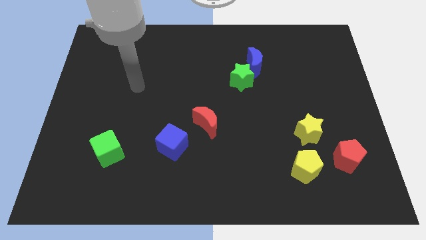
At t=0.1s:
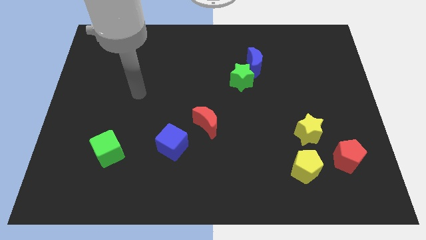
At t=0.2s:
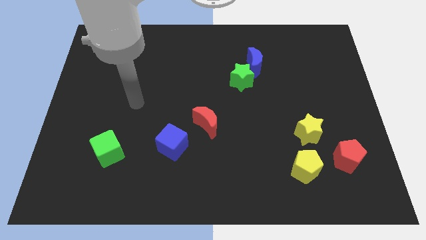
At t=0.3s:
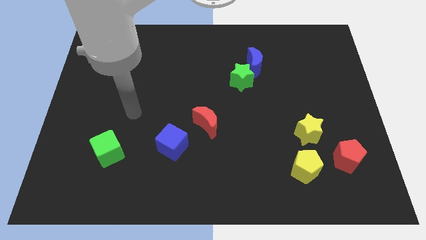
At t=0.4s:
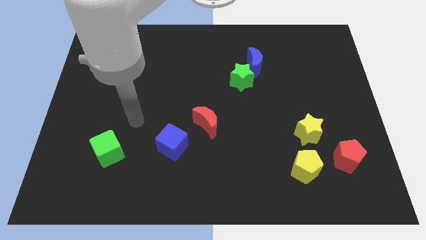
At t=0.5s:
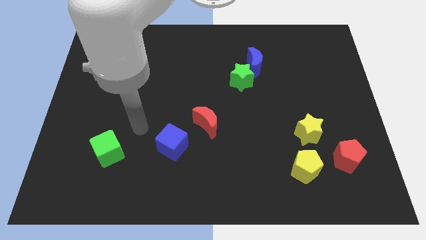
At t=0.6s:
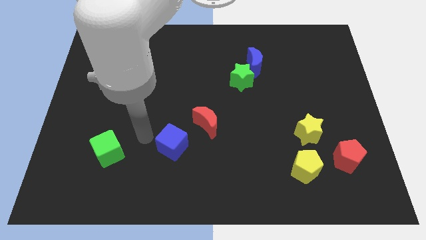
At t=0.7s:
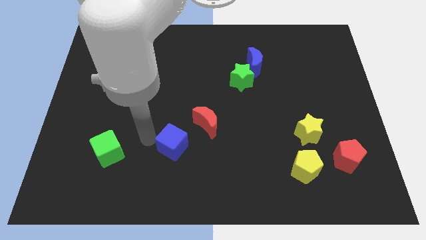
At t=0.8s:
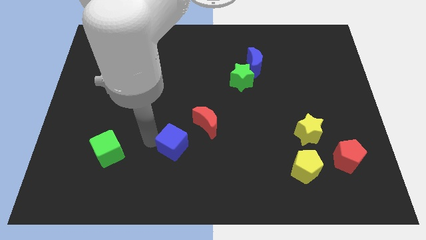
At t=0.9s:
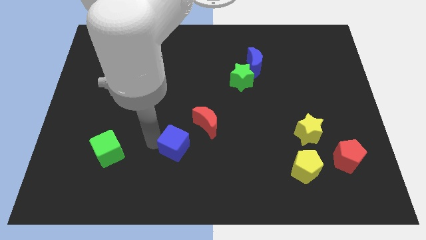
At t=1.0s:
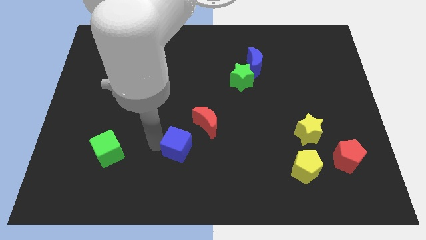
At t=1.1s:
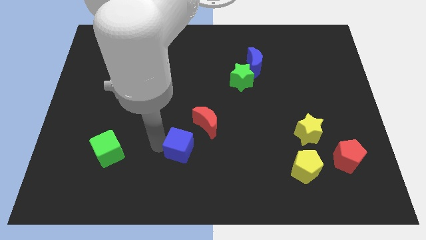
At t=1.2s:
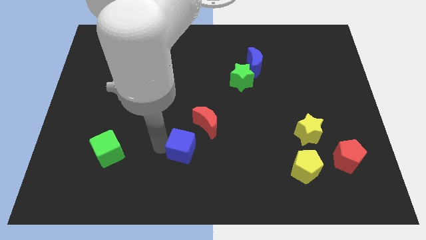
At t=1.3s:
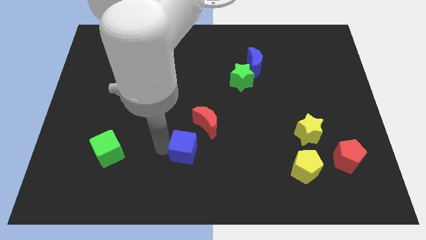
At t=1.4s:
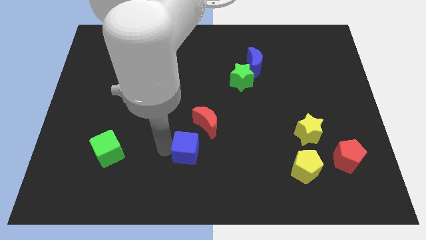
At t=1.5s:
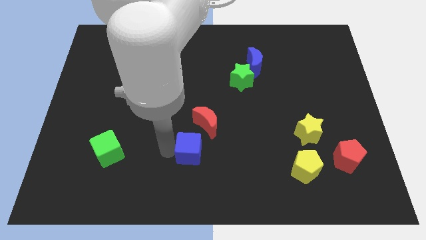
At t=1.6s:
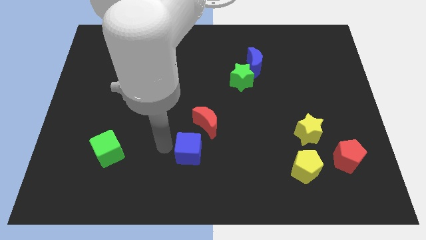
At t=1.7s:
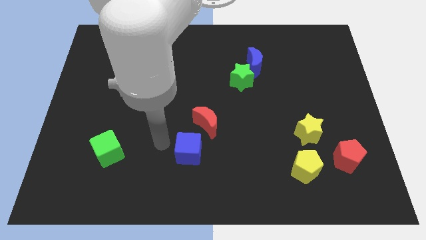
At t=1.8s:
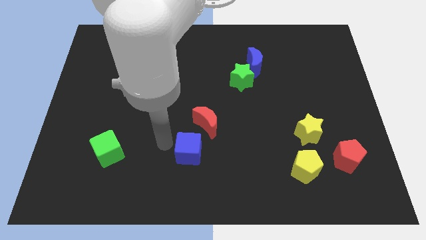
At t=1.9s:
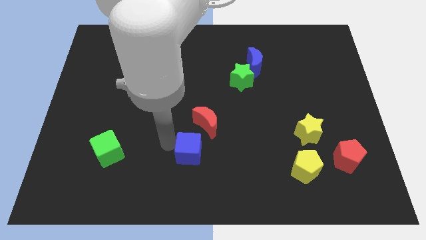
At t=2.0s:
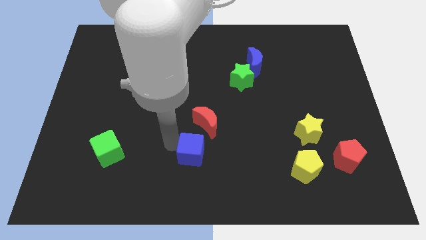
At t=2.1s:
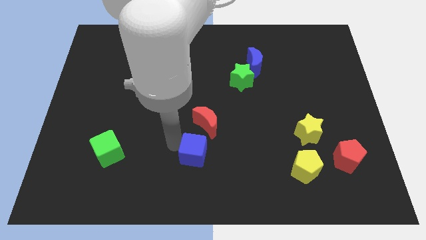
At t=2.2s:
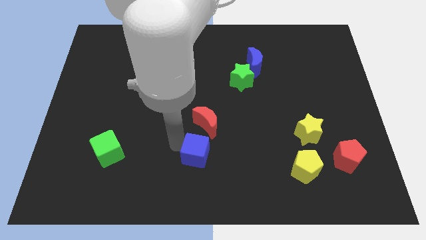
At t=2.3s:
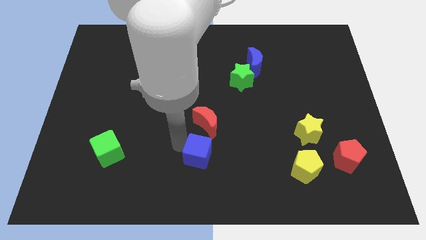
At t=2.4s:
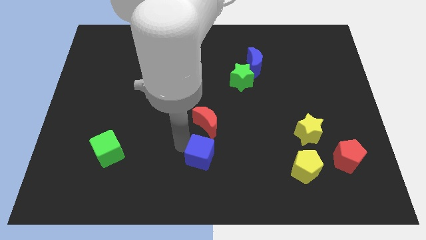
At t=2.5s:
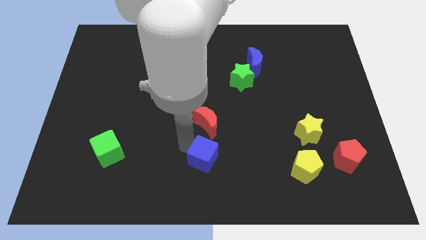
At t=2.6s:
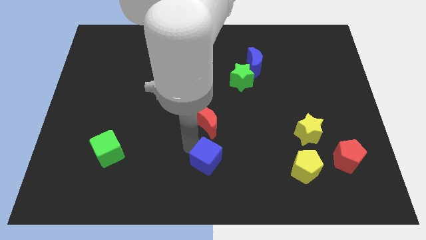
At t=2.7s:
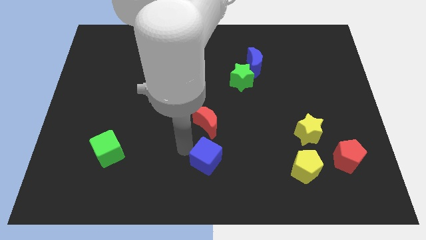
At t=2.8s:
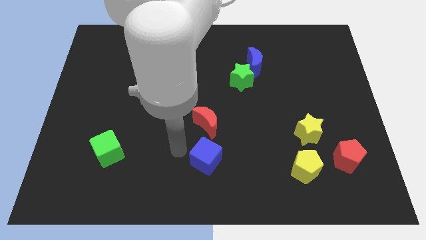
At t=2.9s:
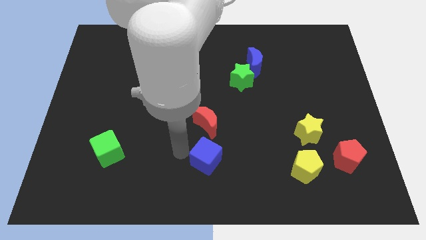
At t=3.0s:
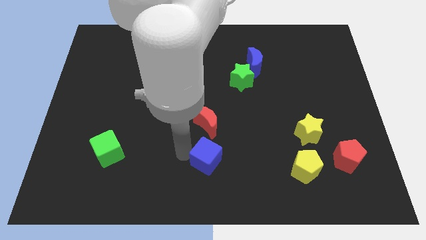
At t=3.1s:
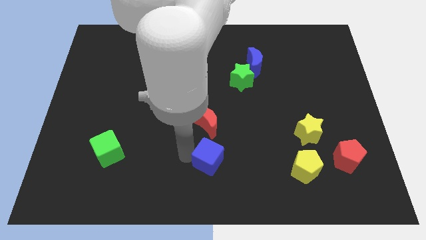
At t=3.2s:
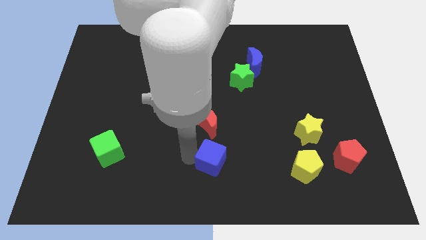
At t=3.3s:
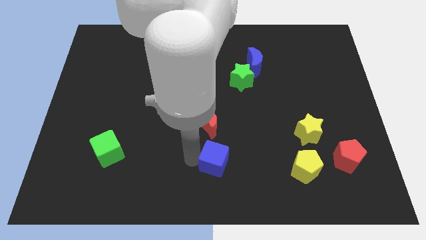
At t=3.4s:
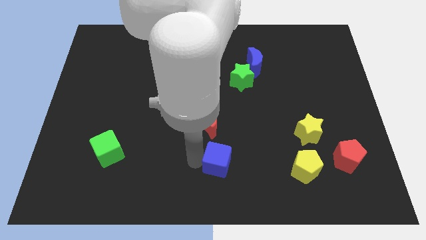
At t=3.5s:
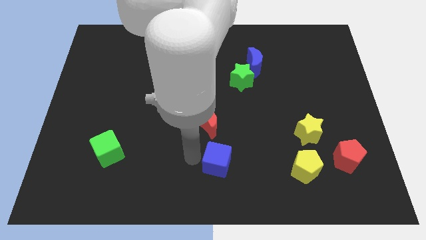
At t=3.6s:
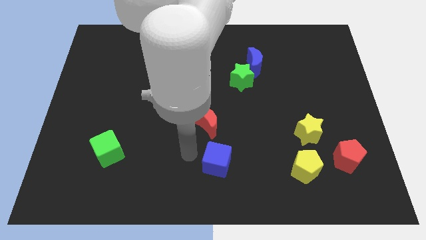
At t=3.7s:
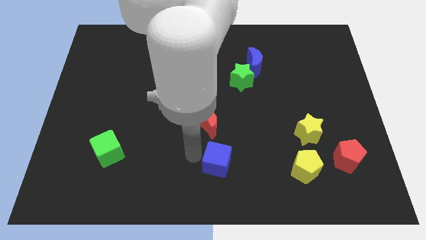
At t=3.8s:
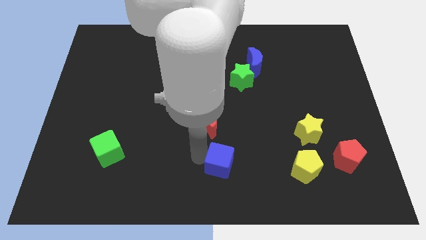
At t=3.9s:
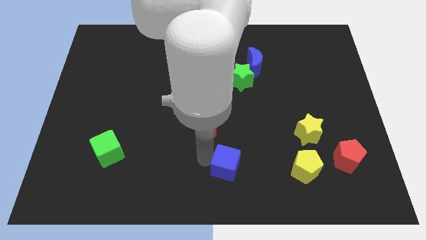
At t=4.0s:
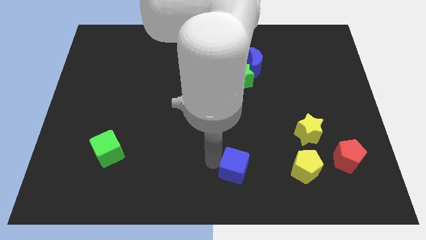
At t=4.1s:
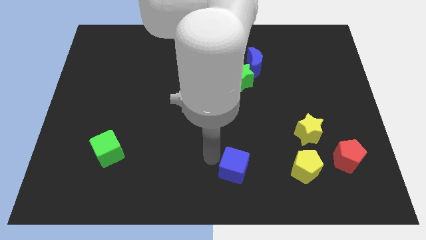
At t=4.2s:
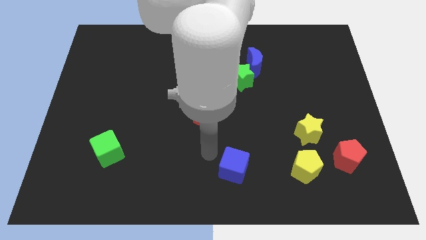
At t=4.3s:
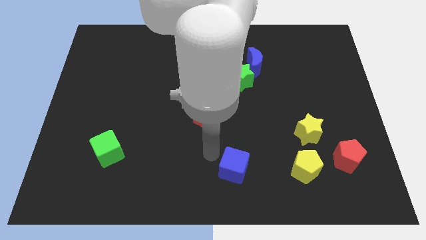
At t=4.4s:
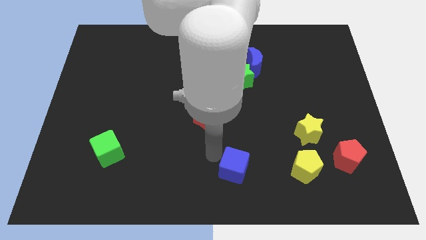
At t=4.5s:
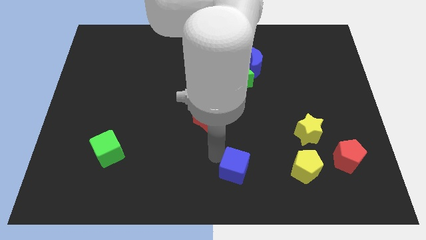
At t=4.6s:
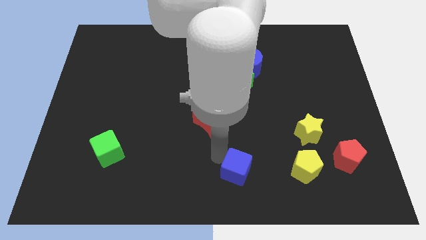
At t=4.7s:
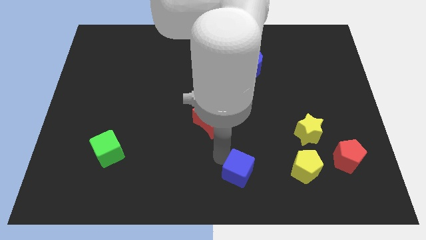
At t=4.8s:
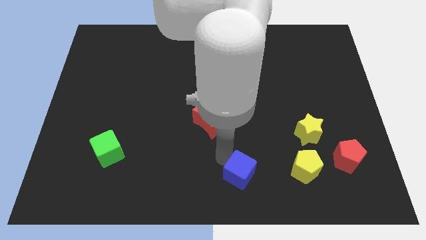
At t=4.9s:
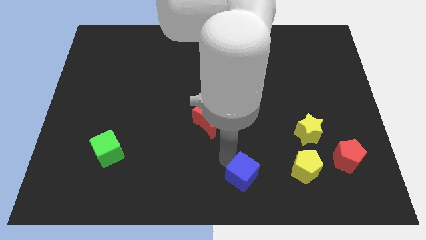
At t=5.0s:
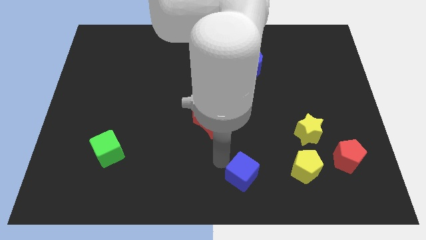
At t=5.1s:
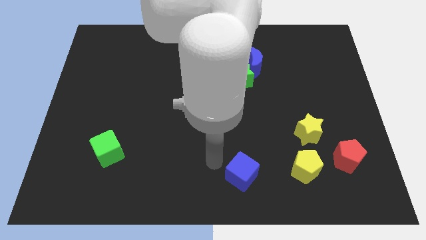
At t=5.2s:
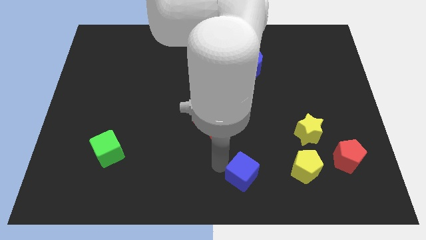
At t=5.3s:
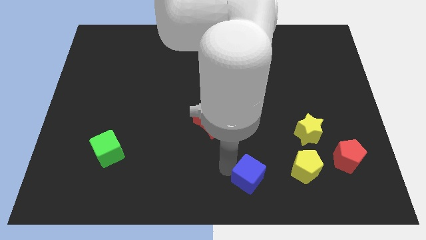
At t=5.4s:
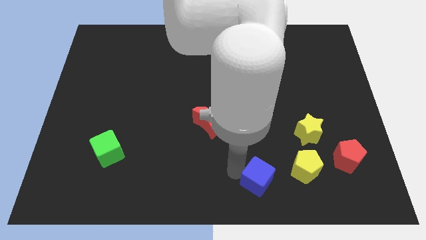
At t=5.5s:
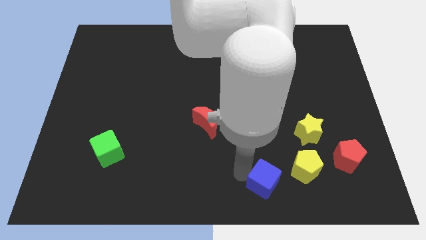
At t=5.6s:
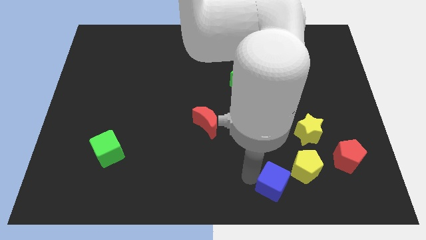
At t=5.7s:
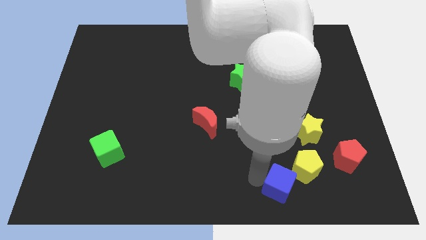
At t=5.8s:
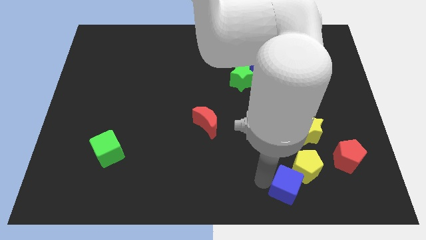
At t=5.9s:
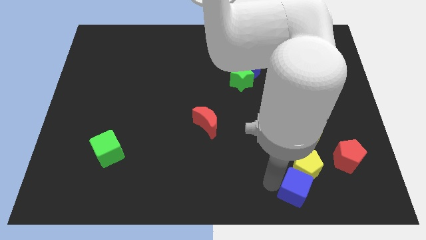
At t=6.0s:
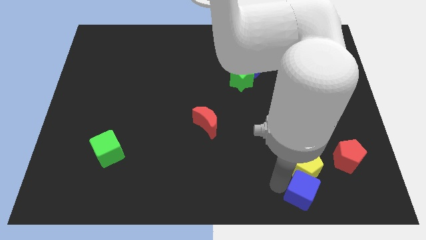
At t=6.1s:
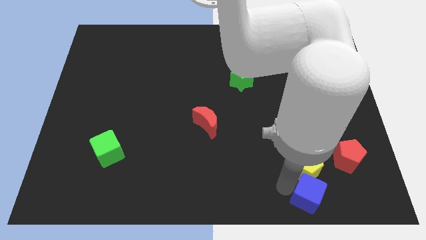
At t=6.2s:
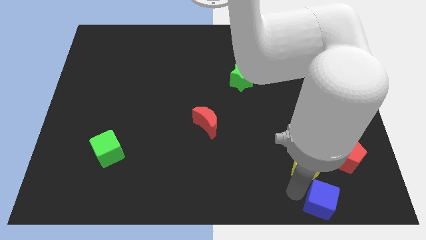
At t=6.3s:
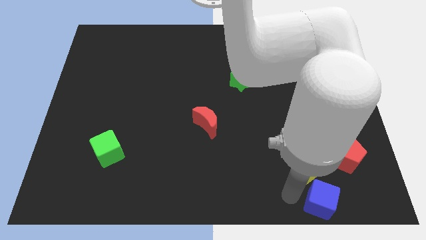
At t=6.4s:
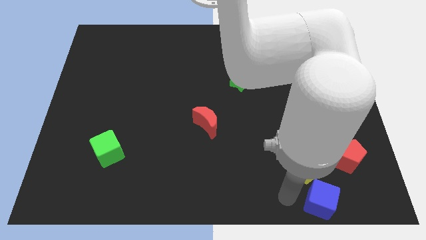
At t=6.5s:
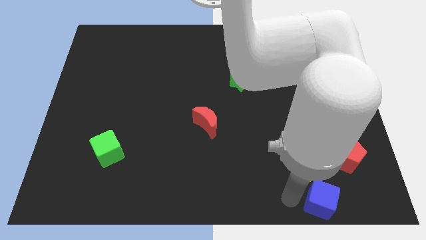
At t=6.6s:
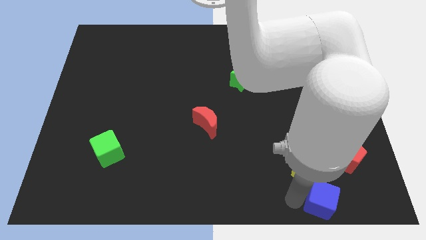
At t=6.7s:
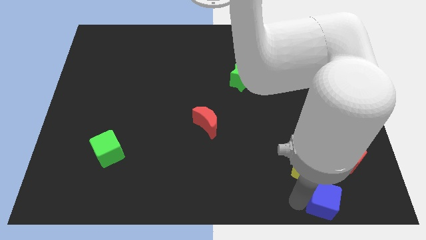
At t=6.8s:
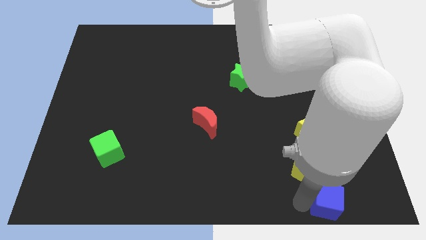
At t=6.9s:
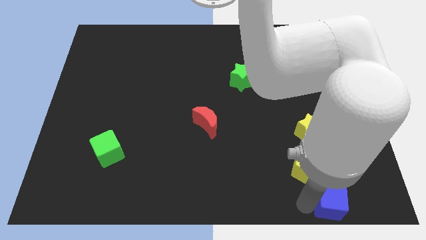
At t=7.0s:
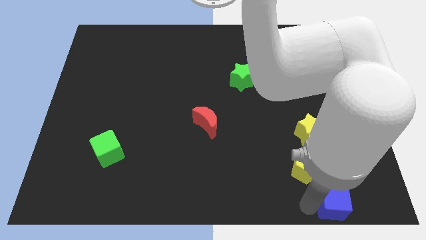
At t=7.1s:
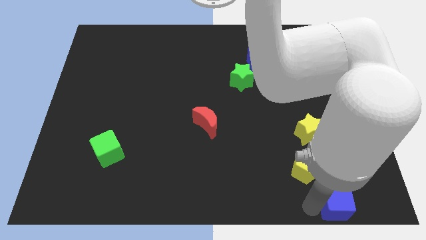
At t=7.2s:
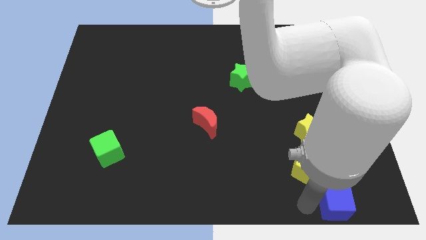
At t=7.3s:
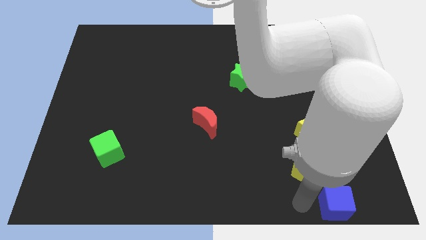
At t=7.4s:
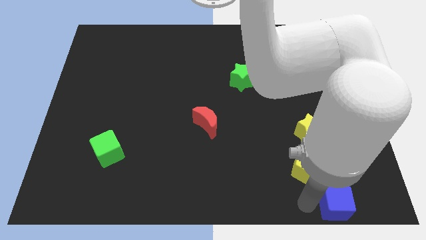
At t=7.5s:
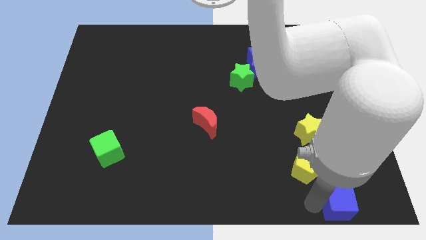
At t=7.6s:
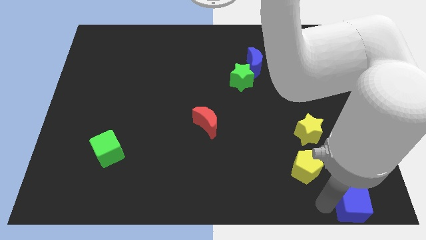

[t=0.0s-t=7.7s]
move the blue cube to the bottom right
